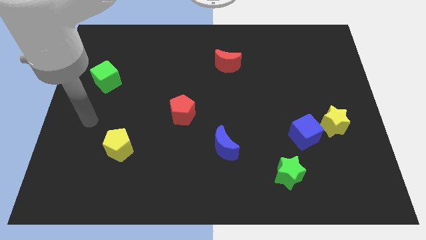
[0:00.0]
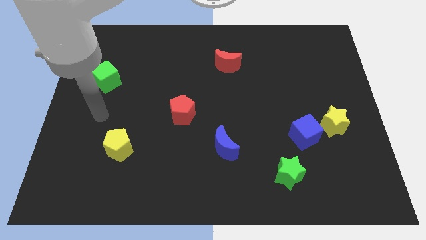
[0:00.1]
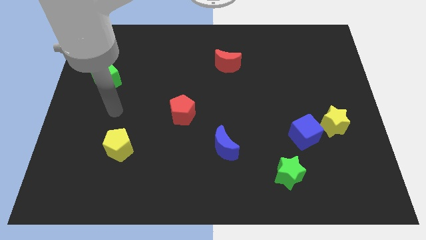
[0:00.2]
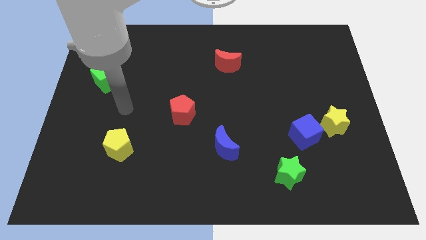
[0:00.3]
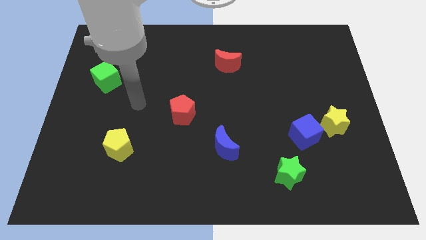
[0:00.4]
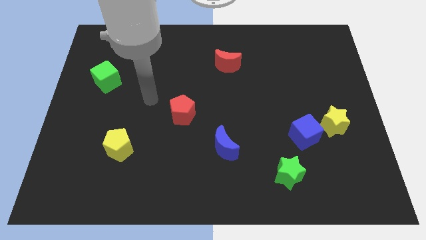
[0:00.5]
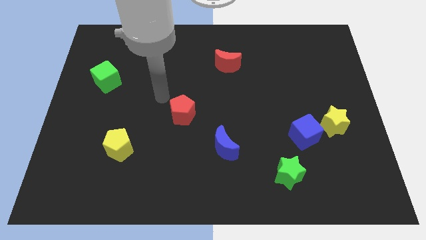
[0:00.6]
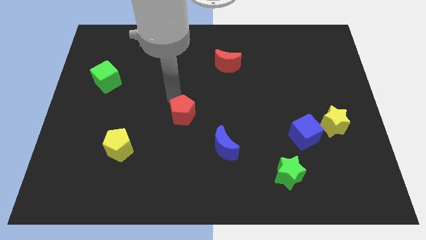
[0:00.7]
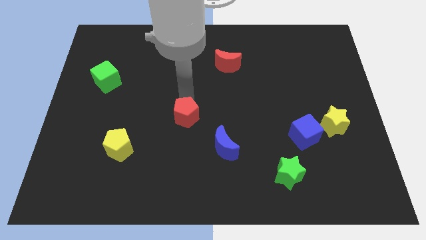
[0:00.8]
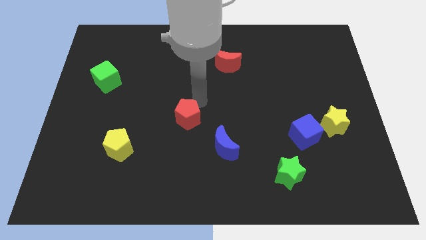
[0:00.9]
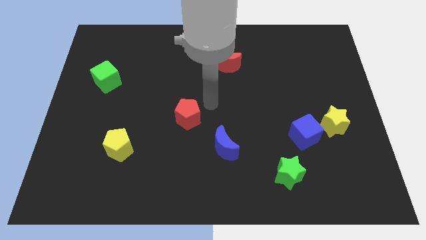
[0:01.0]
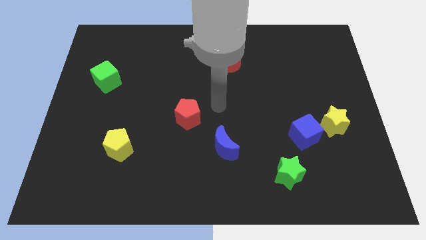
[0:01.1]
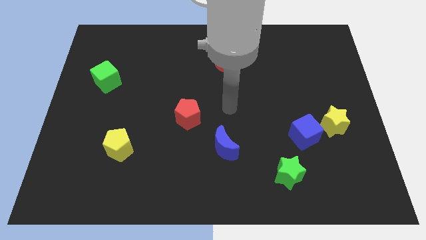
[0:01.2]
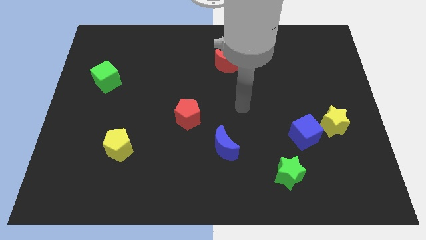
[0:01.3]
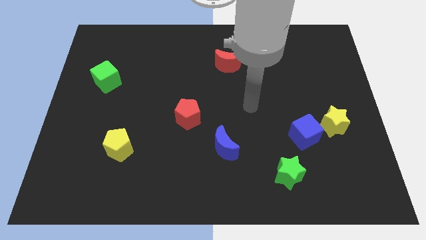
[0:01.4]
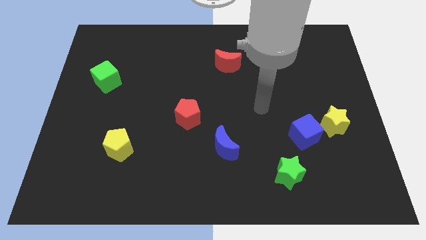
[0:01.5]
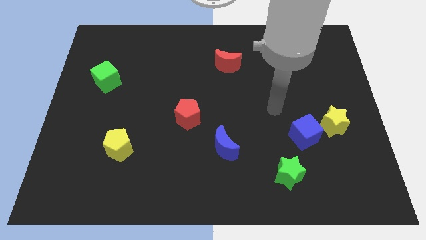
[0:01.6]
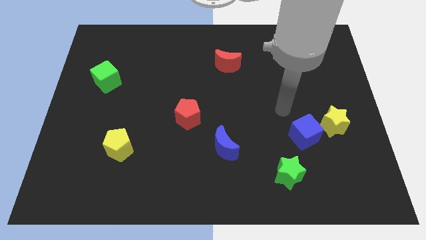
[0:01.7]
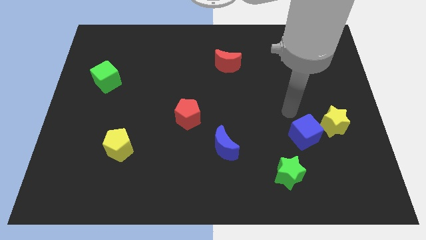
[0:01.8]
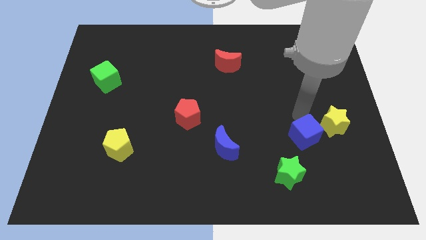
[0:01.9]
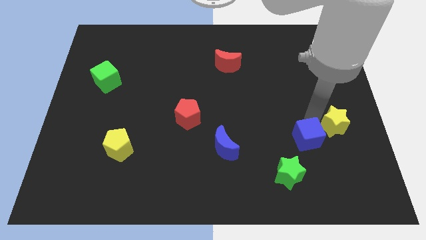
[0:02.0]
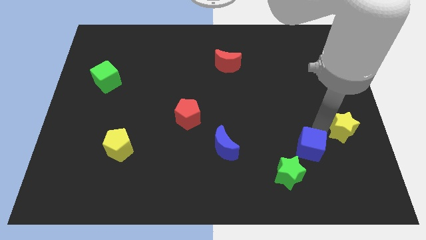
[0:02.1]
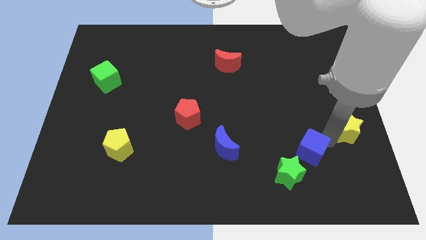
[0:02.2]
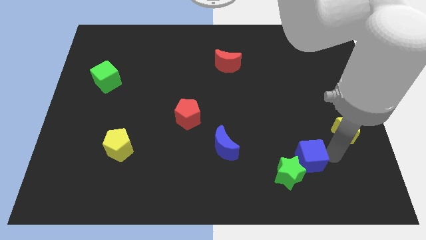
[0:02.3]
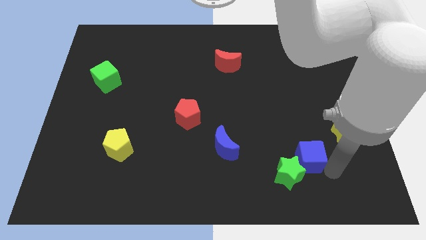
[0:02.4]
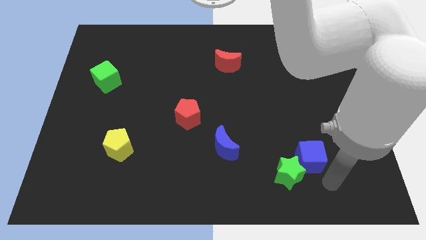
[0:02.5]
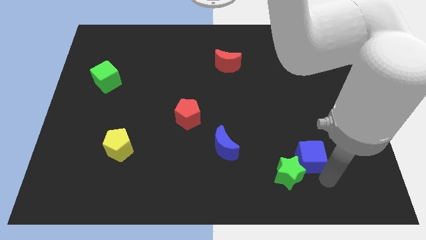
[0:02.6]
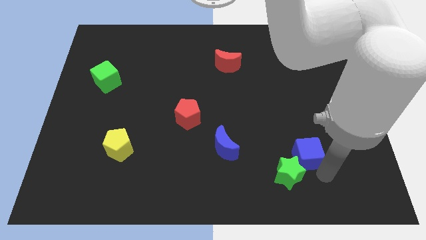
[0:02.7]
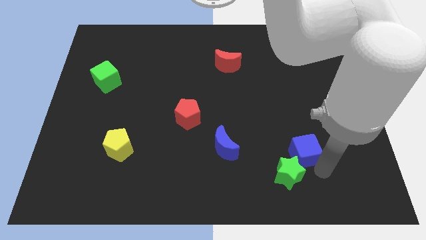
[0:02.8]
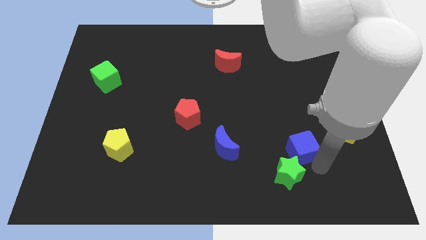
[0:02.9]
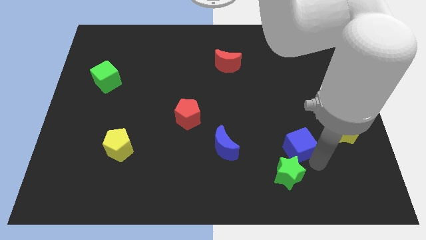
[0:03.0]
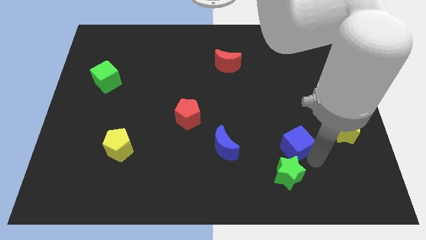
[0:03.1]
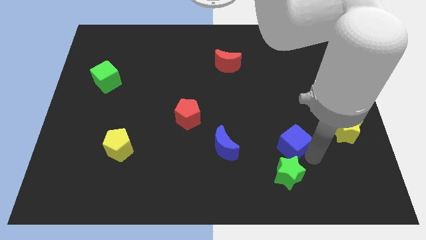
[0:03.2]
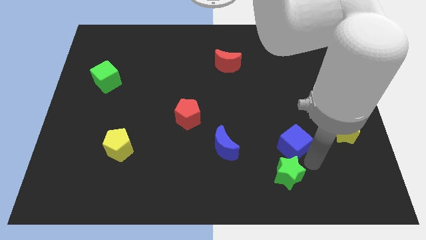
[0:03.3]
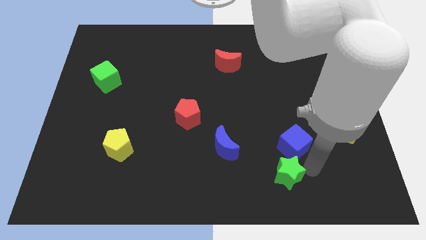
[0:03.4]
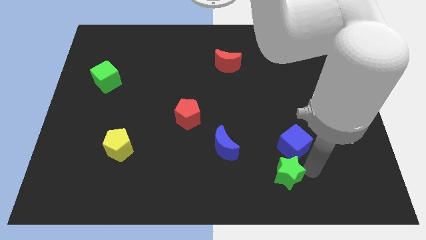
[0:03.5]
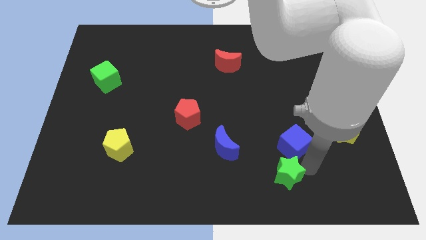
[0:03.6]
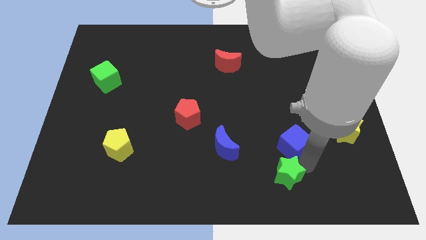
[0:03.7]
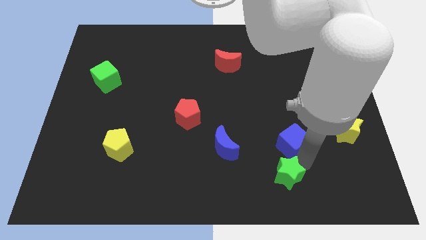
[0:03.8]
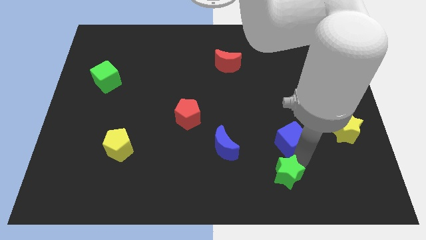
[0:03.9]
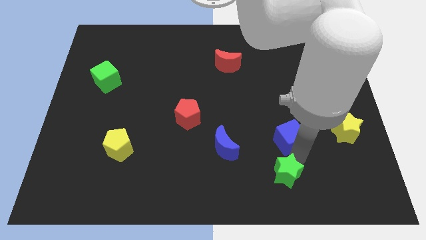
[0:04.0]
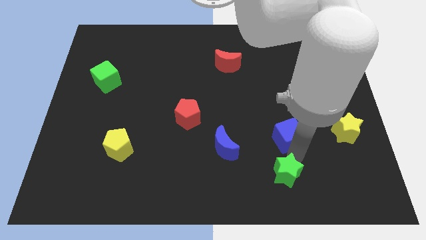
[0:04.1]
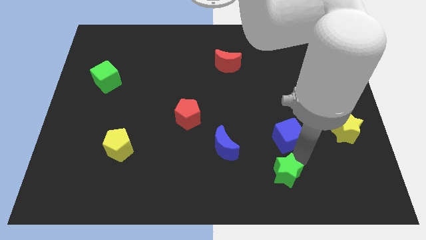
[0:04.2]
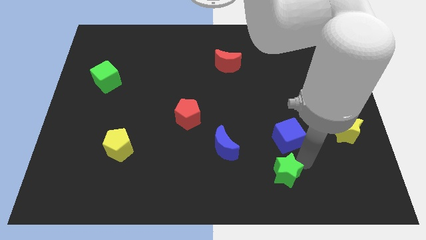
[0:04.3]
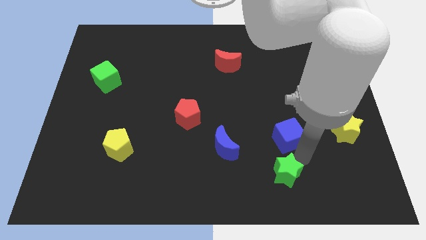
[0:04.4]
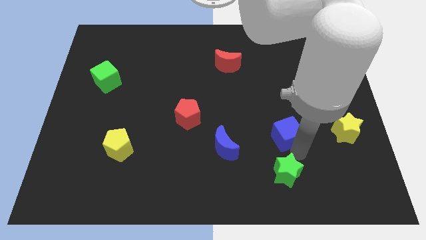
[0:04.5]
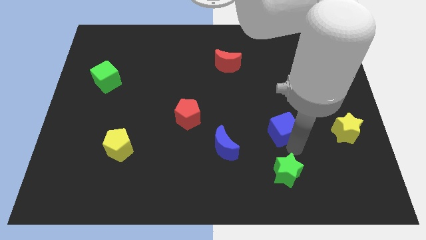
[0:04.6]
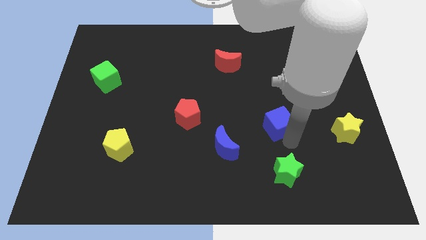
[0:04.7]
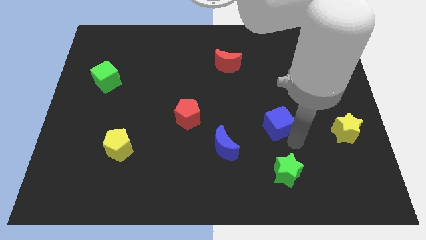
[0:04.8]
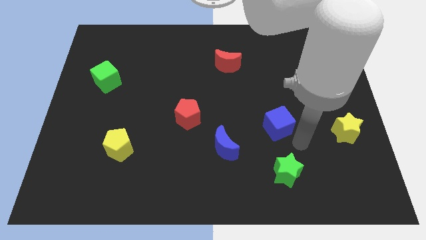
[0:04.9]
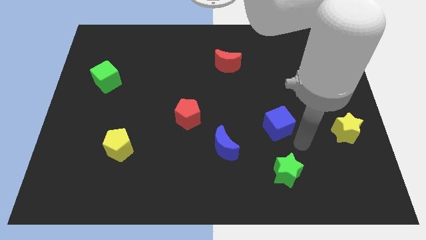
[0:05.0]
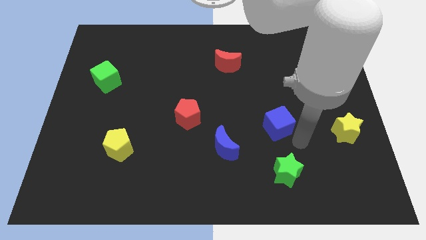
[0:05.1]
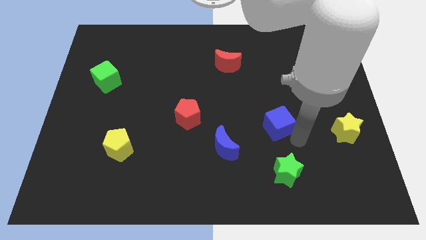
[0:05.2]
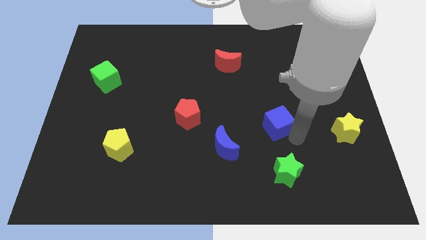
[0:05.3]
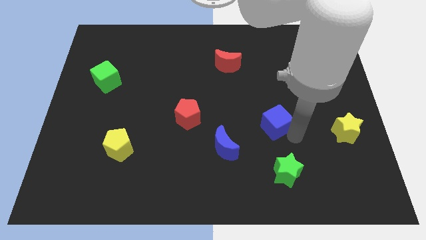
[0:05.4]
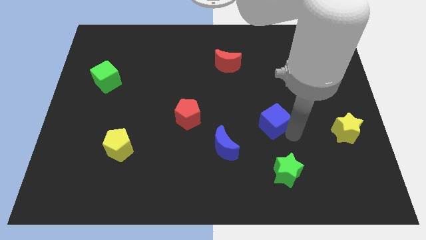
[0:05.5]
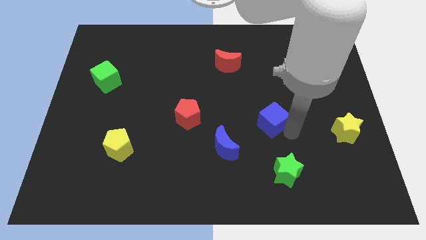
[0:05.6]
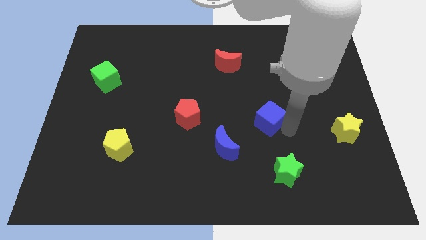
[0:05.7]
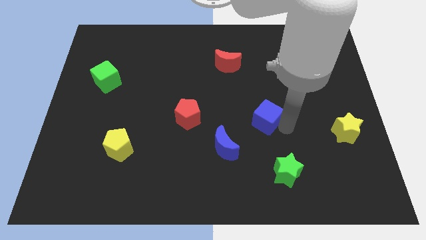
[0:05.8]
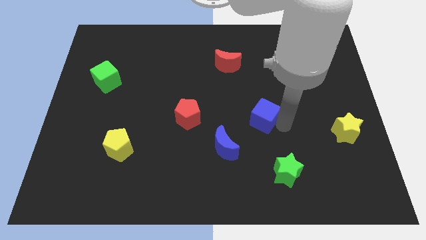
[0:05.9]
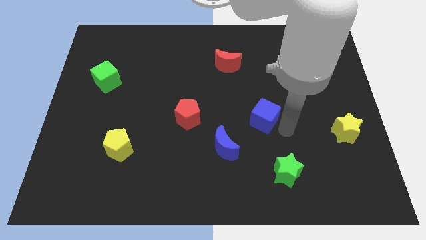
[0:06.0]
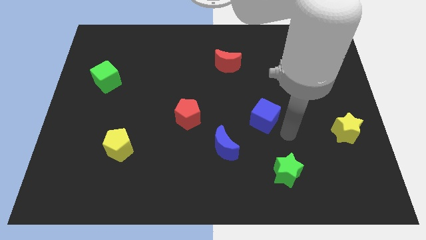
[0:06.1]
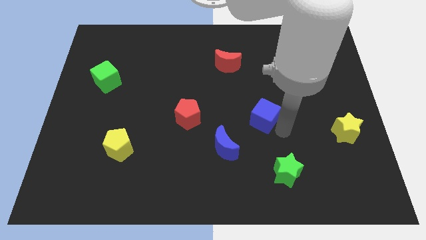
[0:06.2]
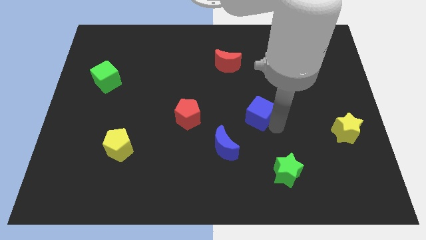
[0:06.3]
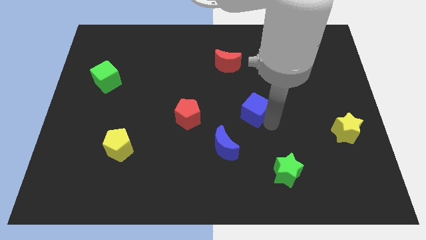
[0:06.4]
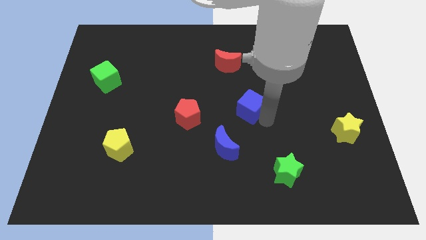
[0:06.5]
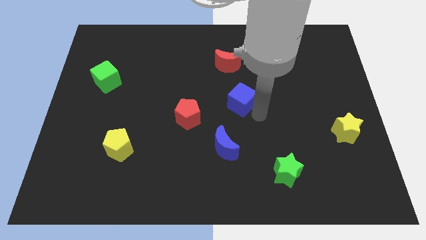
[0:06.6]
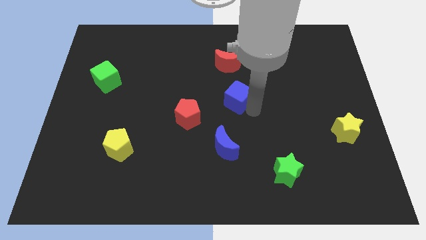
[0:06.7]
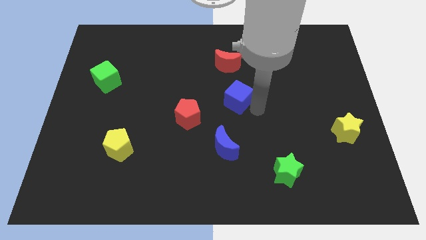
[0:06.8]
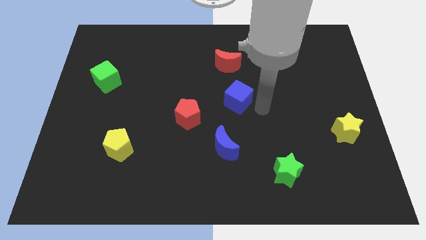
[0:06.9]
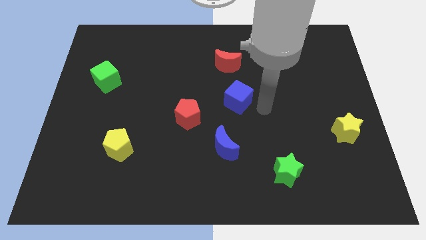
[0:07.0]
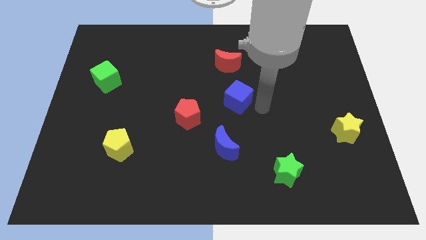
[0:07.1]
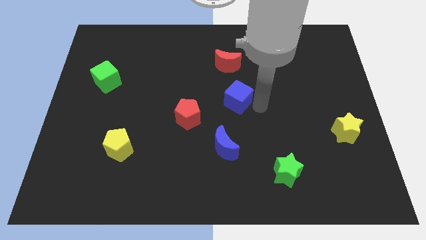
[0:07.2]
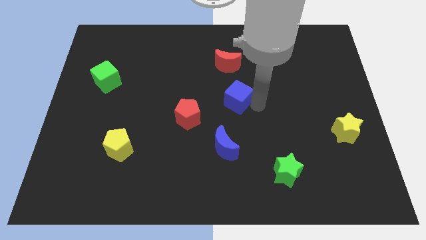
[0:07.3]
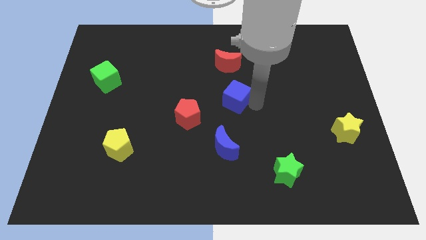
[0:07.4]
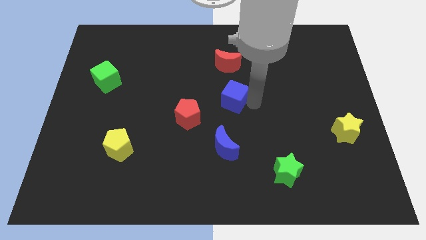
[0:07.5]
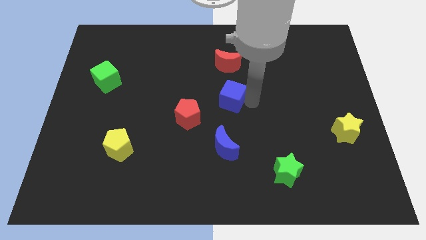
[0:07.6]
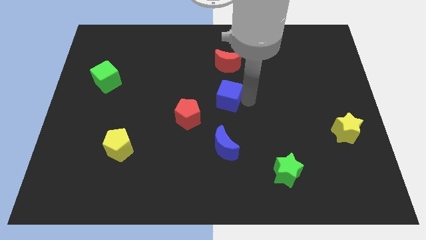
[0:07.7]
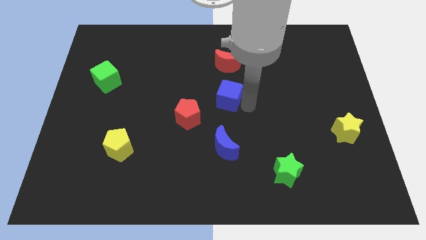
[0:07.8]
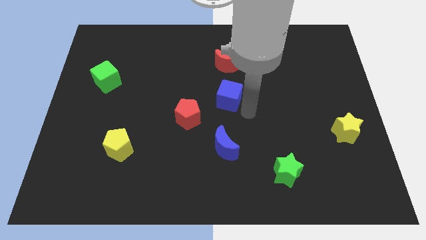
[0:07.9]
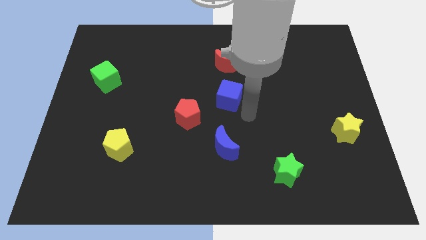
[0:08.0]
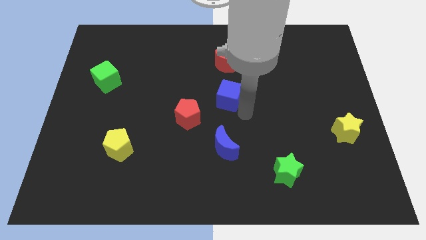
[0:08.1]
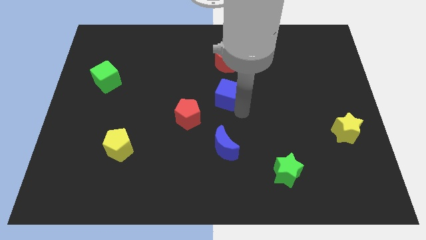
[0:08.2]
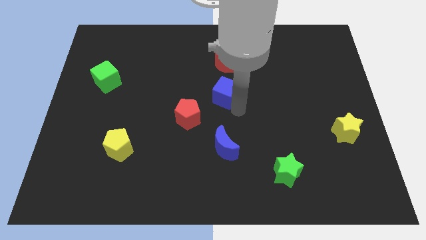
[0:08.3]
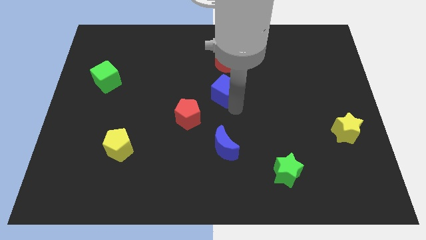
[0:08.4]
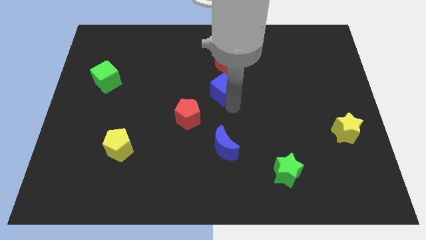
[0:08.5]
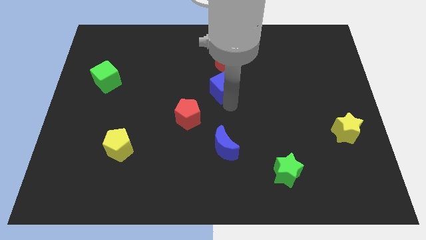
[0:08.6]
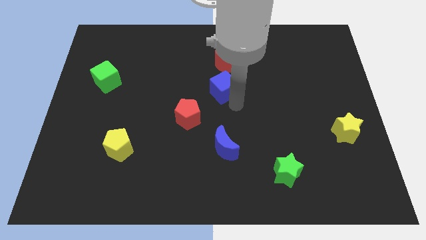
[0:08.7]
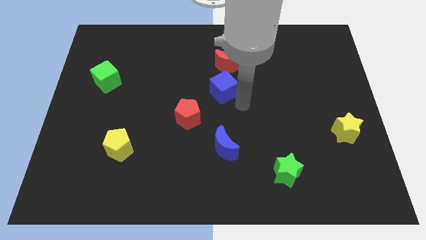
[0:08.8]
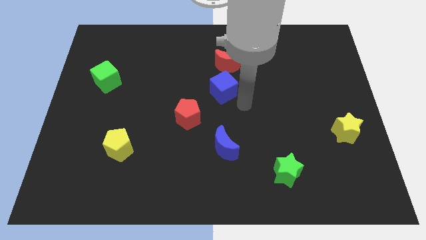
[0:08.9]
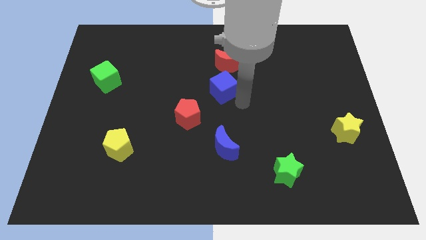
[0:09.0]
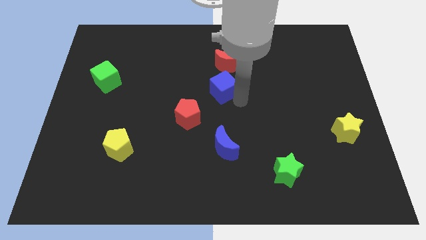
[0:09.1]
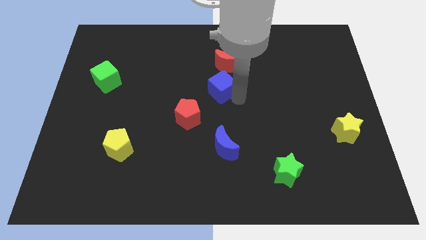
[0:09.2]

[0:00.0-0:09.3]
push the blue cube to the bottom left of the red moon
